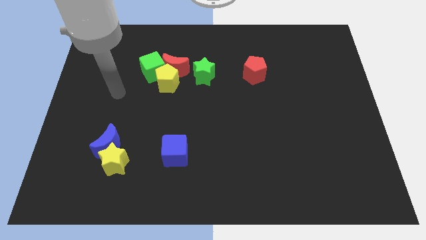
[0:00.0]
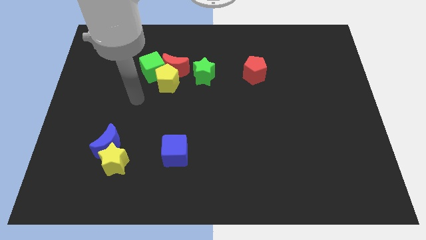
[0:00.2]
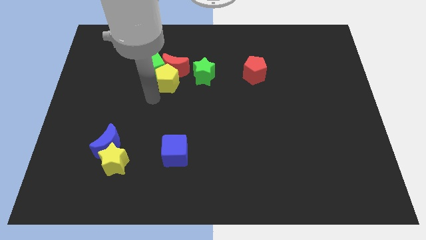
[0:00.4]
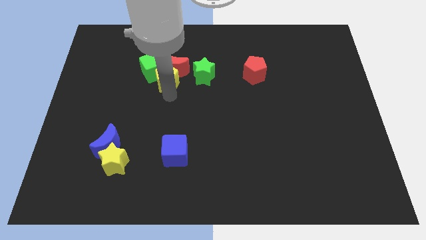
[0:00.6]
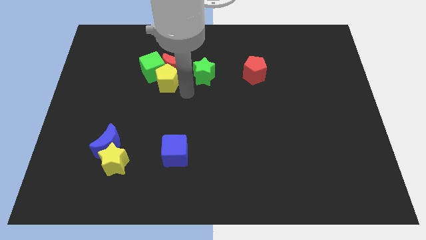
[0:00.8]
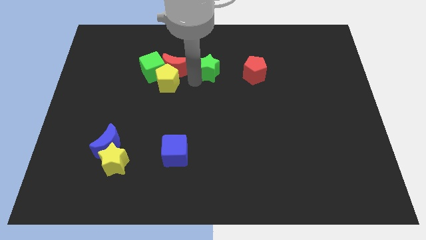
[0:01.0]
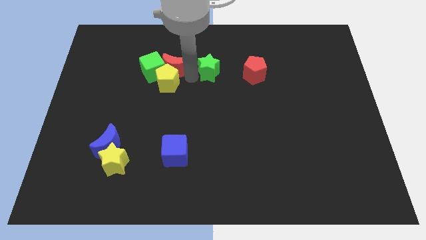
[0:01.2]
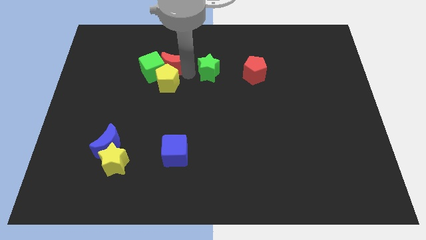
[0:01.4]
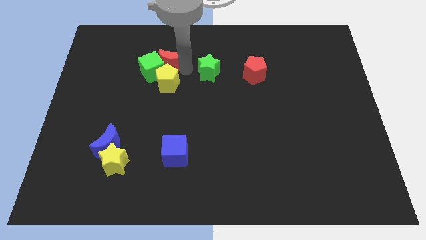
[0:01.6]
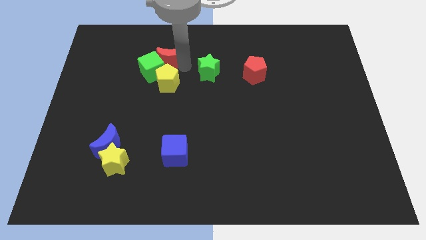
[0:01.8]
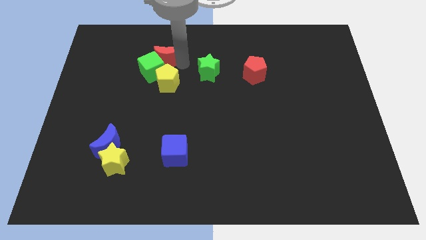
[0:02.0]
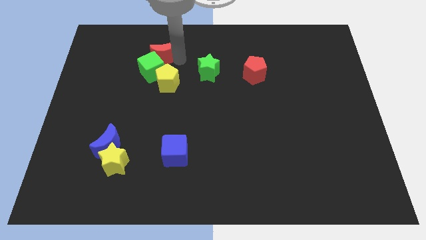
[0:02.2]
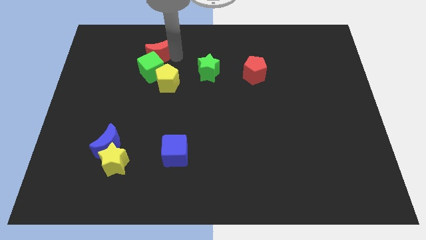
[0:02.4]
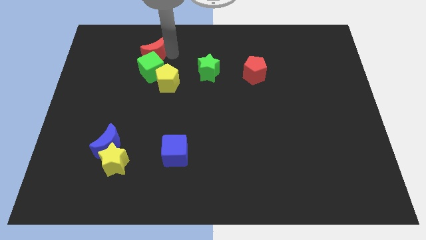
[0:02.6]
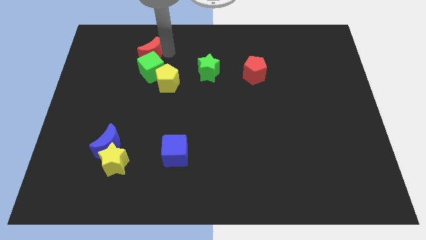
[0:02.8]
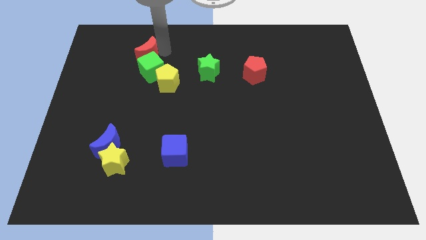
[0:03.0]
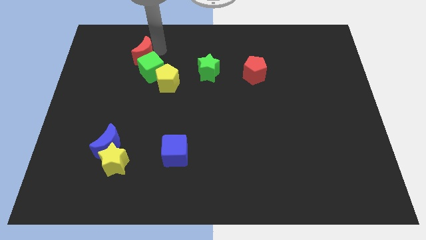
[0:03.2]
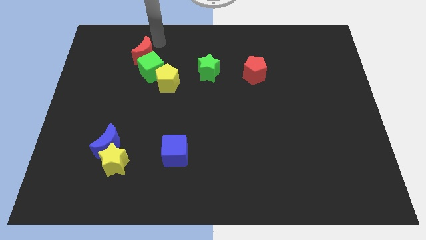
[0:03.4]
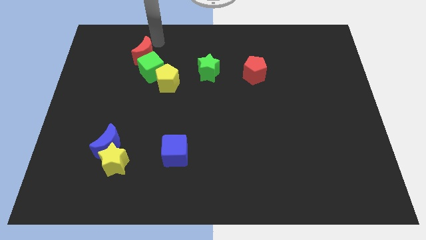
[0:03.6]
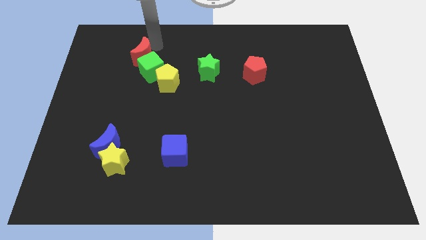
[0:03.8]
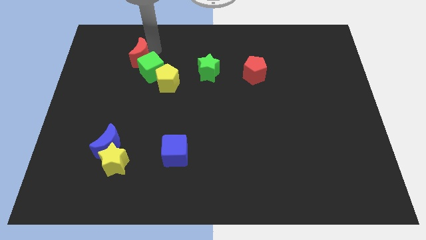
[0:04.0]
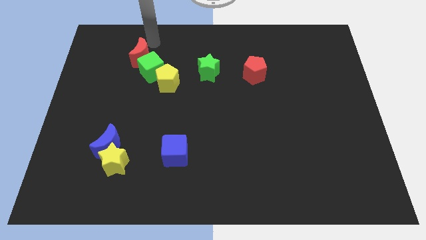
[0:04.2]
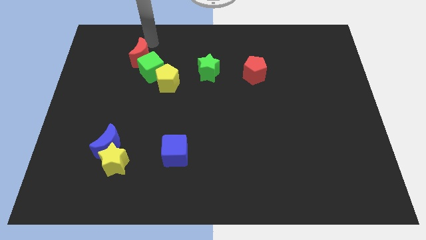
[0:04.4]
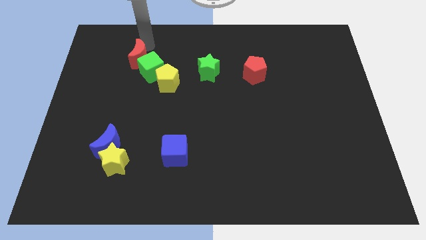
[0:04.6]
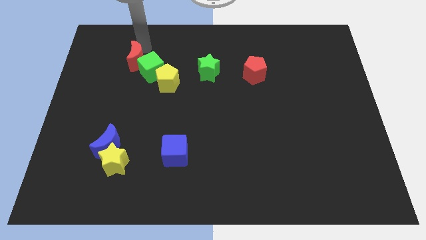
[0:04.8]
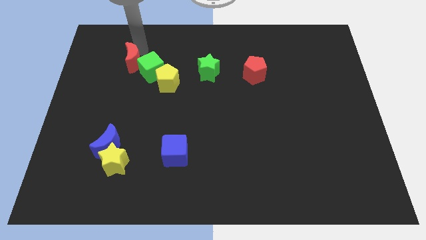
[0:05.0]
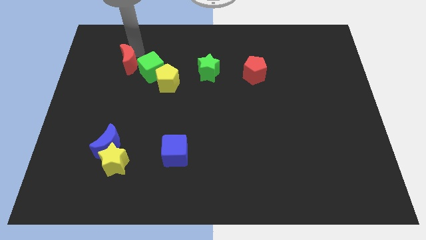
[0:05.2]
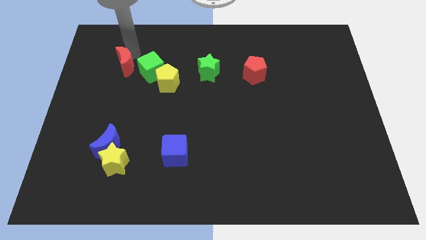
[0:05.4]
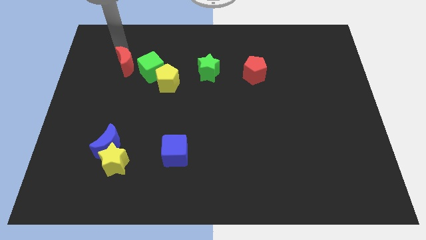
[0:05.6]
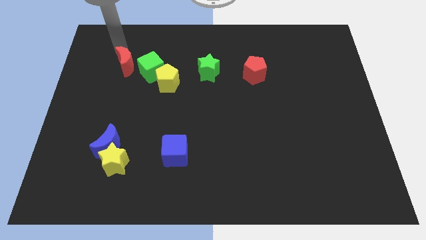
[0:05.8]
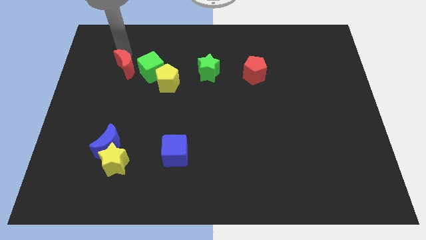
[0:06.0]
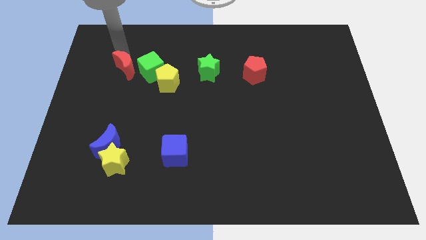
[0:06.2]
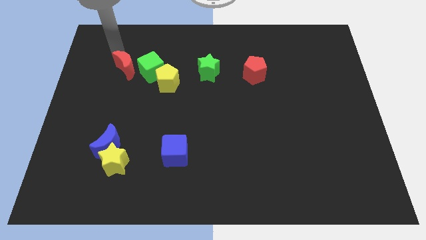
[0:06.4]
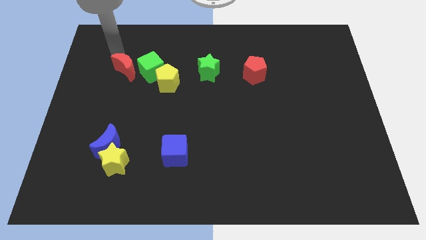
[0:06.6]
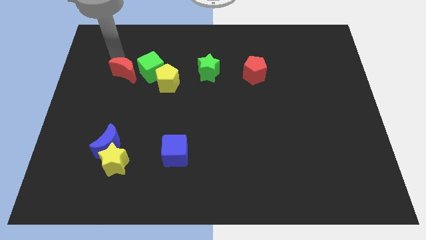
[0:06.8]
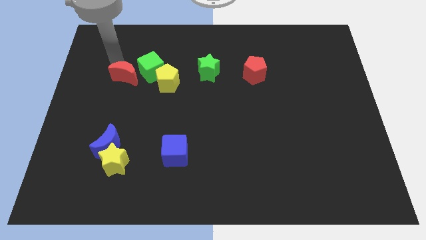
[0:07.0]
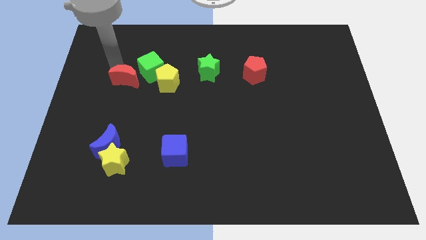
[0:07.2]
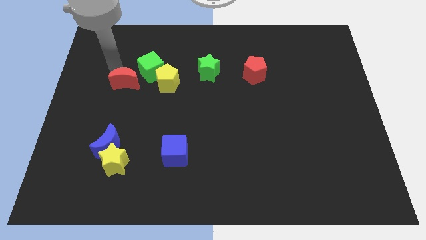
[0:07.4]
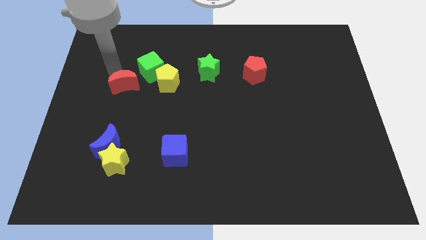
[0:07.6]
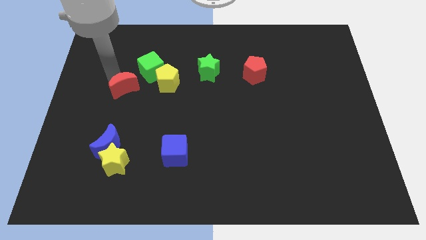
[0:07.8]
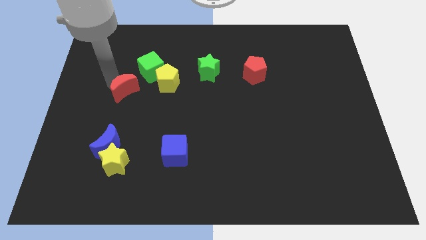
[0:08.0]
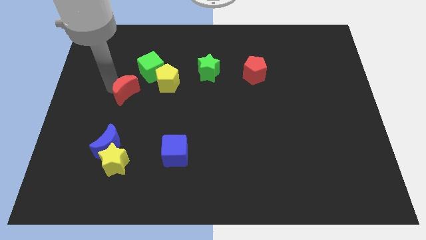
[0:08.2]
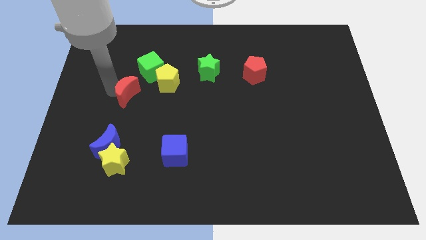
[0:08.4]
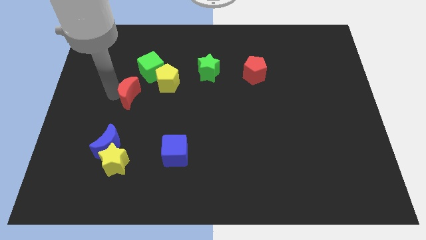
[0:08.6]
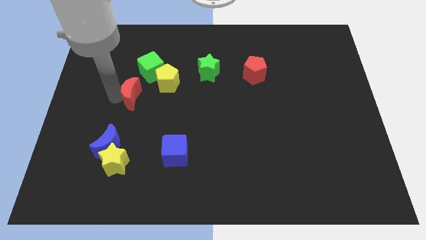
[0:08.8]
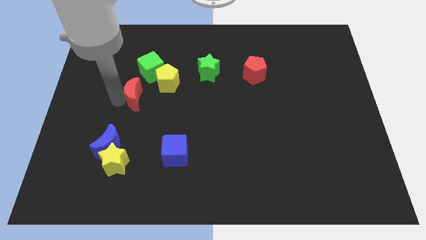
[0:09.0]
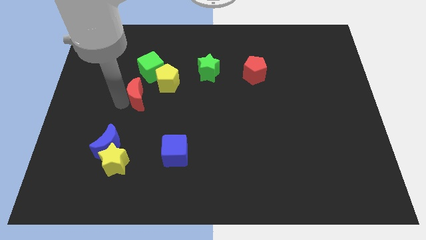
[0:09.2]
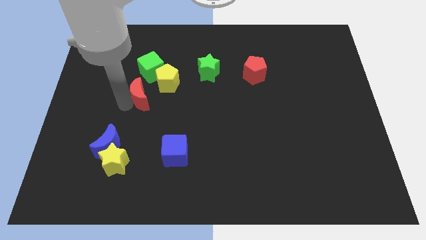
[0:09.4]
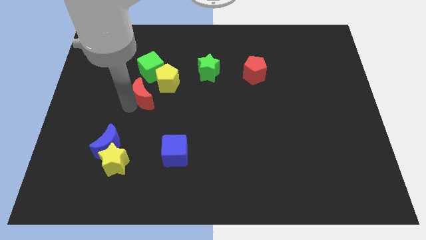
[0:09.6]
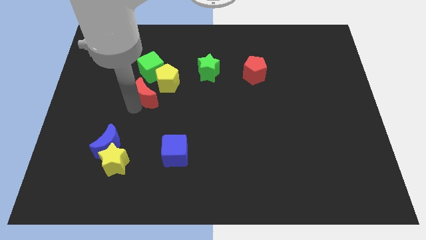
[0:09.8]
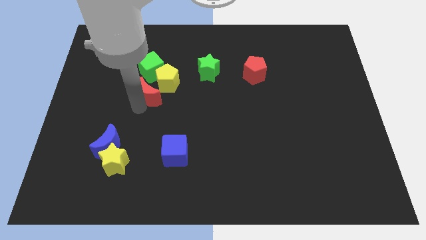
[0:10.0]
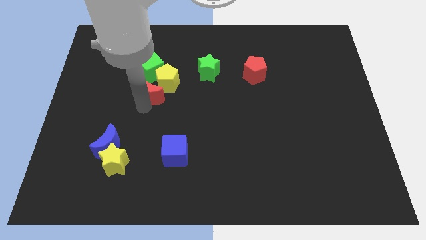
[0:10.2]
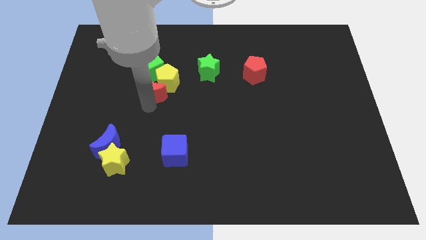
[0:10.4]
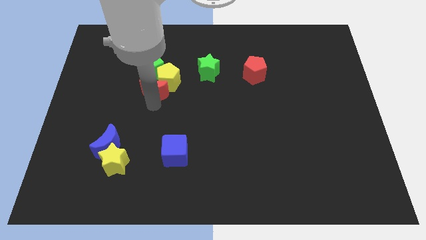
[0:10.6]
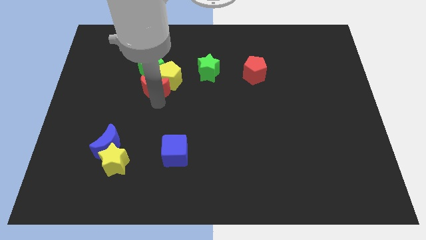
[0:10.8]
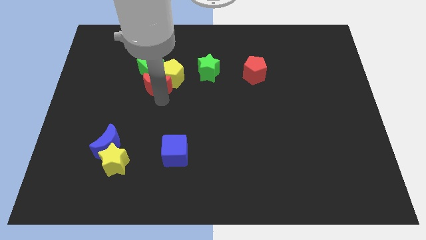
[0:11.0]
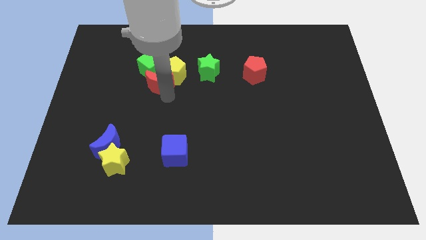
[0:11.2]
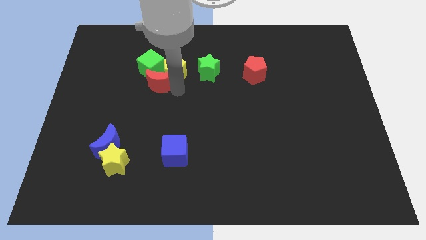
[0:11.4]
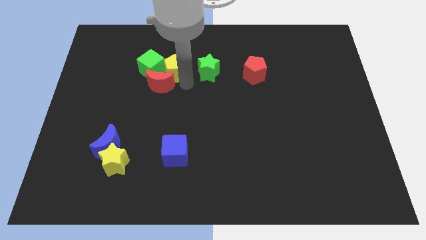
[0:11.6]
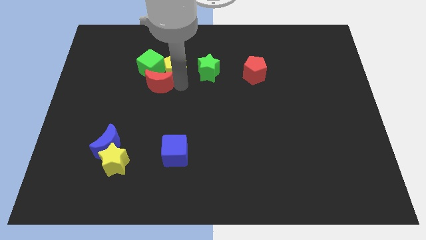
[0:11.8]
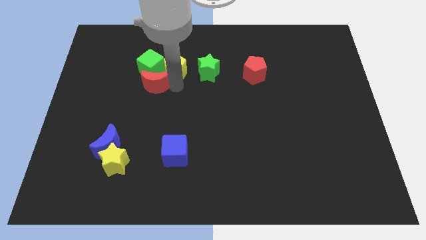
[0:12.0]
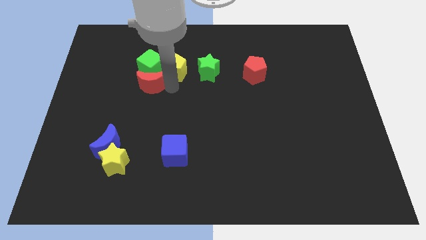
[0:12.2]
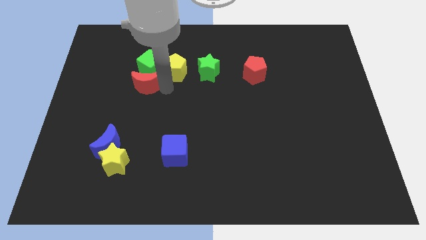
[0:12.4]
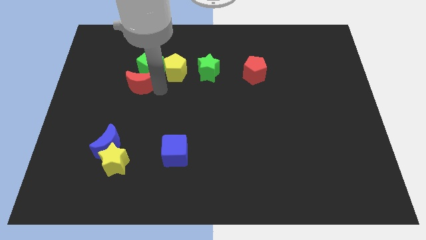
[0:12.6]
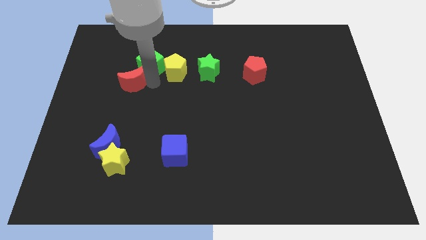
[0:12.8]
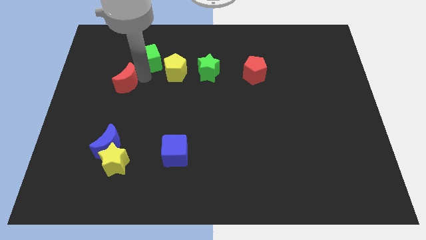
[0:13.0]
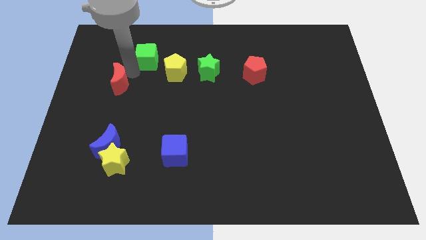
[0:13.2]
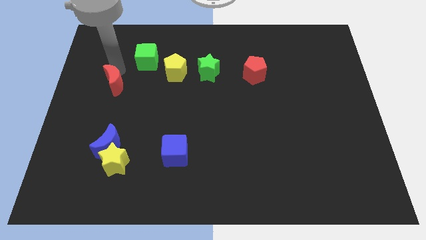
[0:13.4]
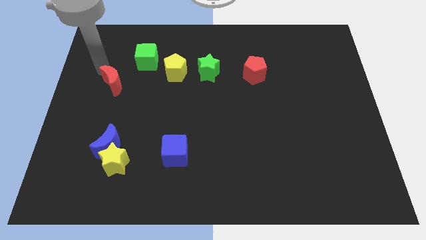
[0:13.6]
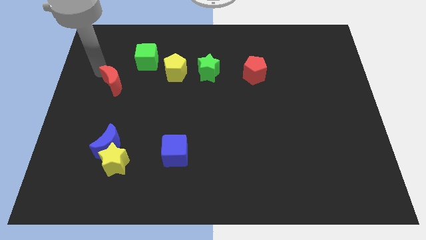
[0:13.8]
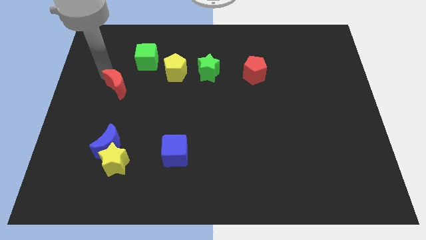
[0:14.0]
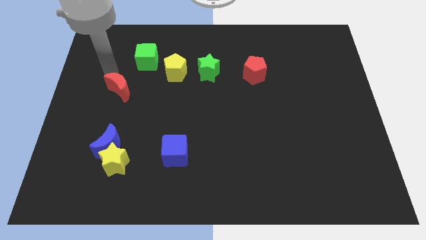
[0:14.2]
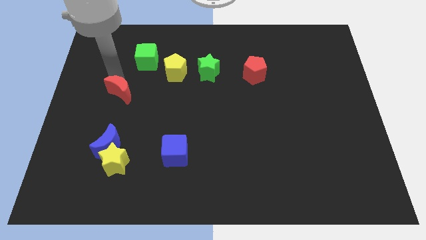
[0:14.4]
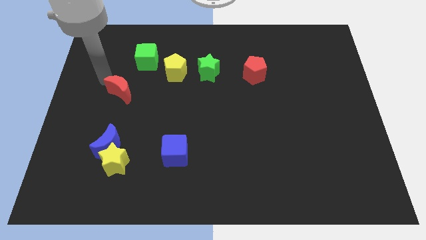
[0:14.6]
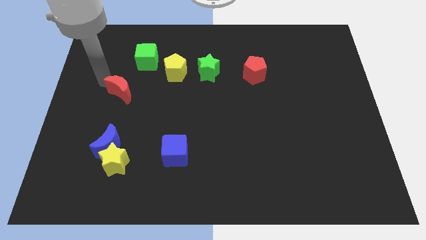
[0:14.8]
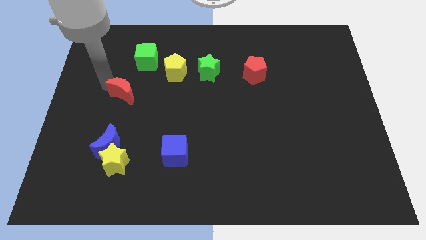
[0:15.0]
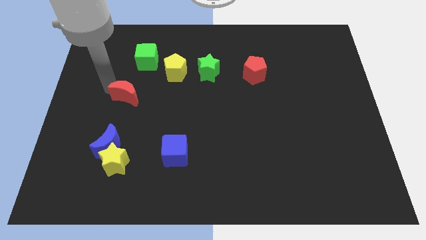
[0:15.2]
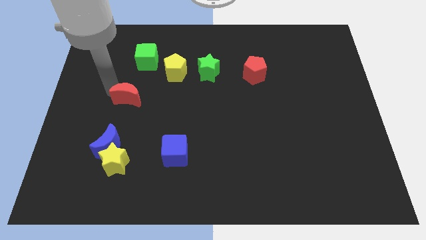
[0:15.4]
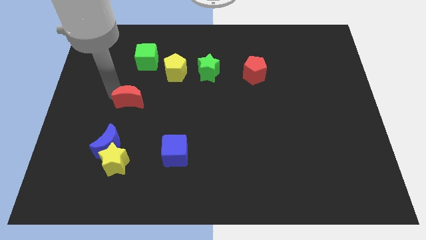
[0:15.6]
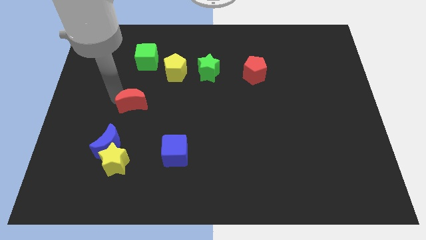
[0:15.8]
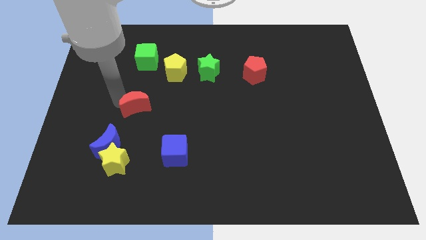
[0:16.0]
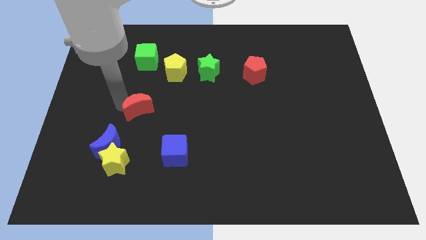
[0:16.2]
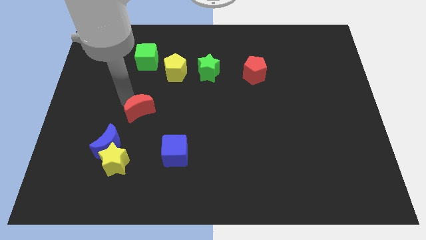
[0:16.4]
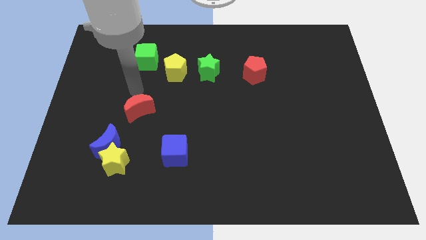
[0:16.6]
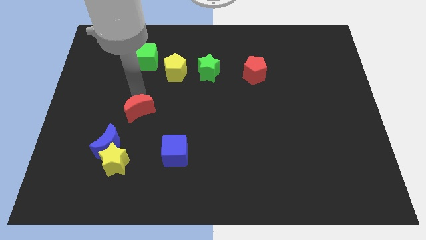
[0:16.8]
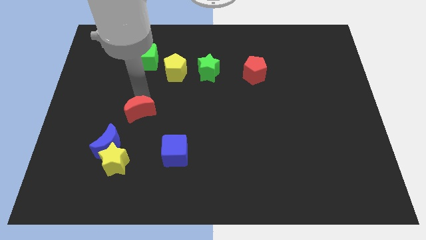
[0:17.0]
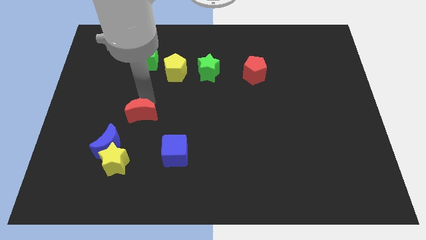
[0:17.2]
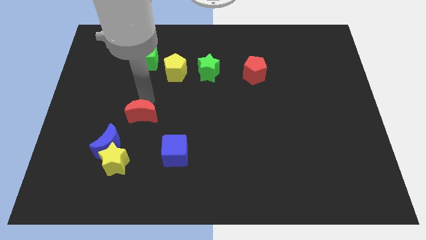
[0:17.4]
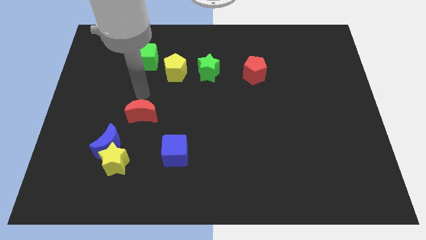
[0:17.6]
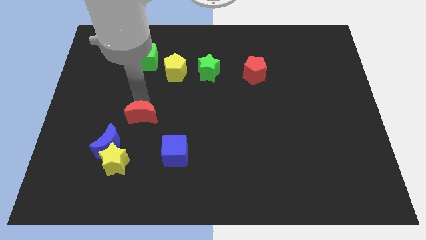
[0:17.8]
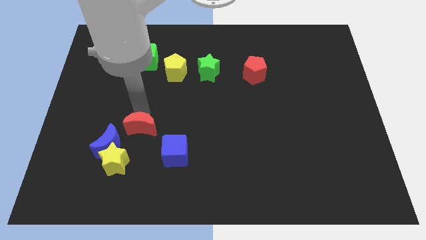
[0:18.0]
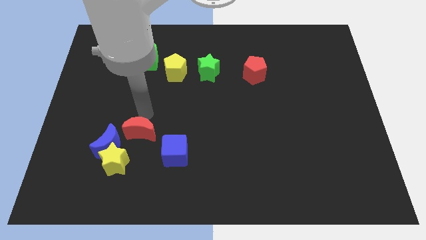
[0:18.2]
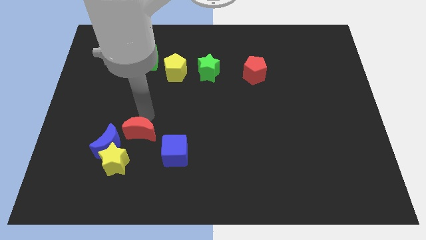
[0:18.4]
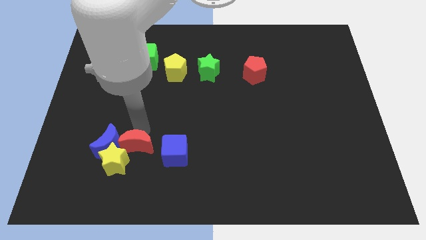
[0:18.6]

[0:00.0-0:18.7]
put the red moon to the bottom right of the blue moon
